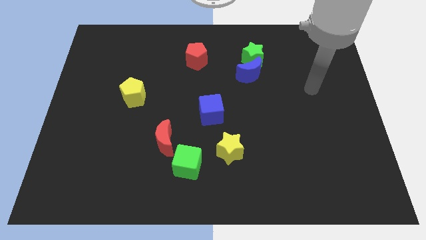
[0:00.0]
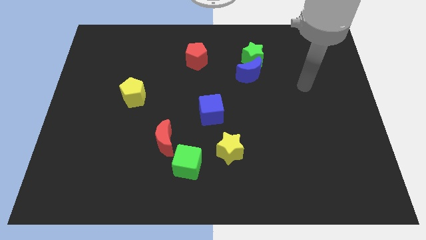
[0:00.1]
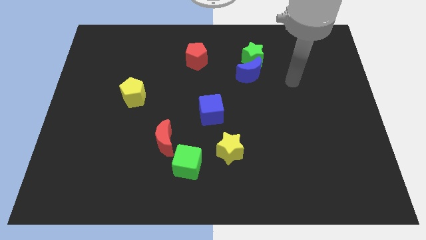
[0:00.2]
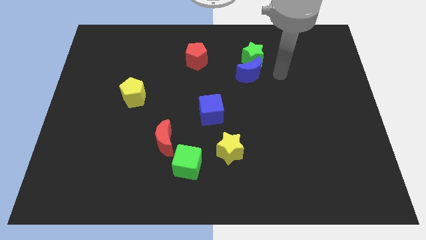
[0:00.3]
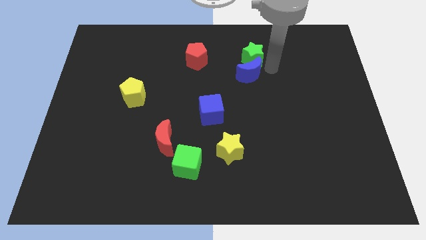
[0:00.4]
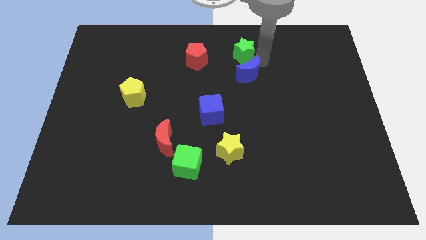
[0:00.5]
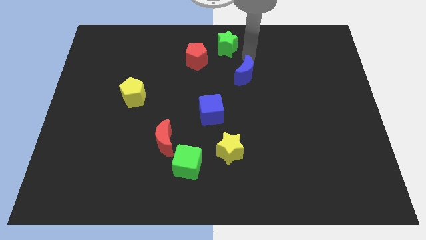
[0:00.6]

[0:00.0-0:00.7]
pull the blue moon apart from the green star

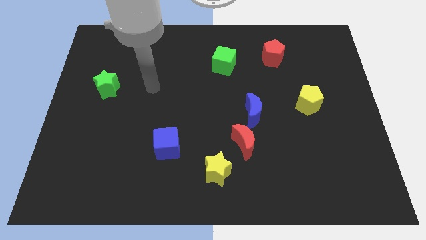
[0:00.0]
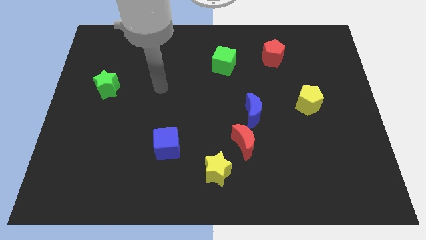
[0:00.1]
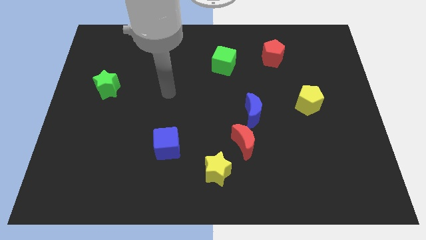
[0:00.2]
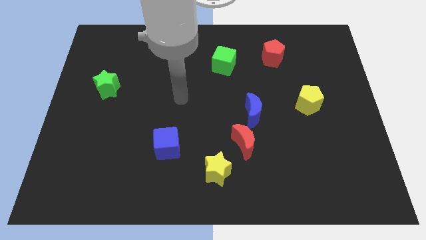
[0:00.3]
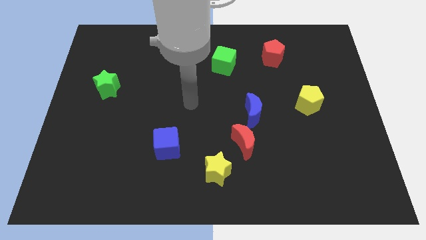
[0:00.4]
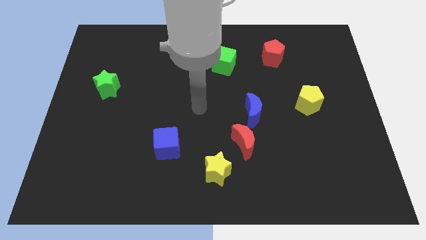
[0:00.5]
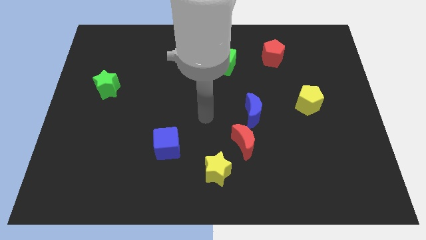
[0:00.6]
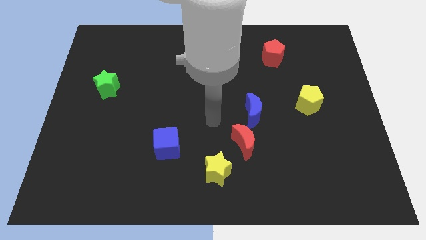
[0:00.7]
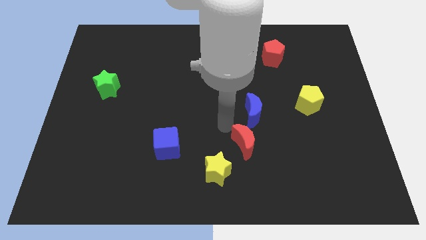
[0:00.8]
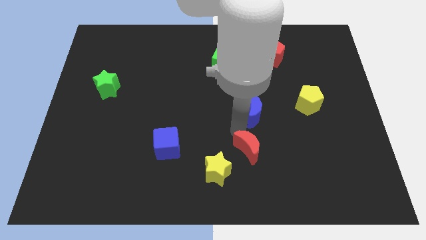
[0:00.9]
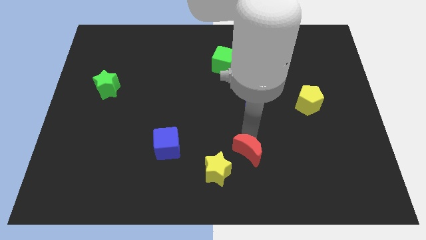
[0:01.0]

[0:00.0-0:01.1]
move the blue moon away from the red moon

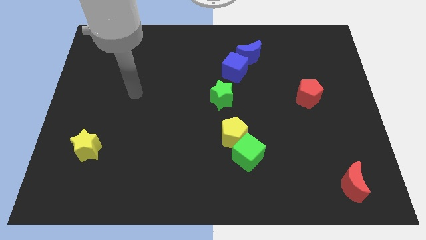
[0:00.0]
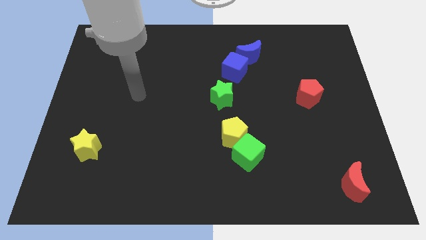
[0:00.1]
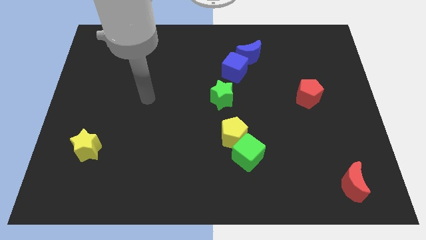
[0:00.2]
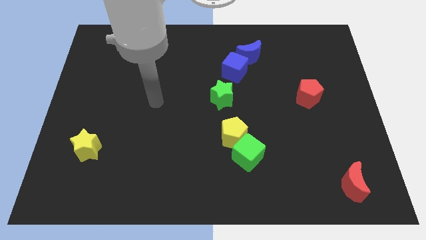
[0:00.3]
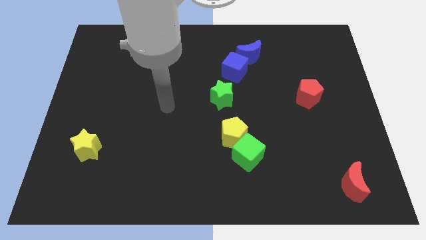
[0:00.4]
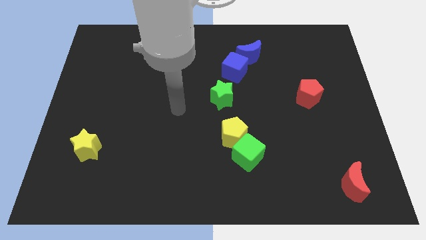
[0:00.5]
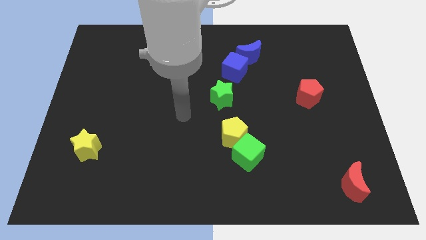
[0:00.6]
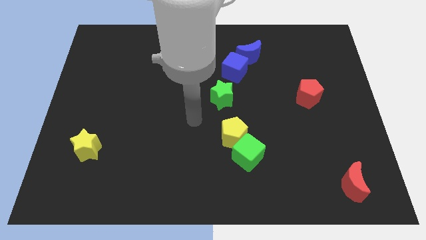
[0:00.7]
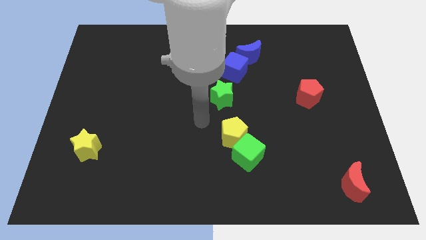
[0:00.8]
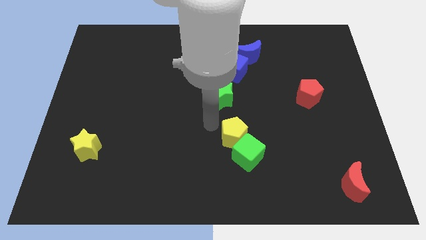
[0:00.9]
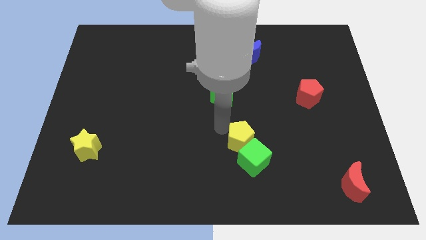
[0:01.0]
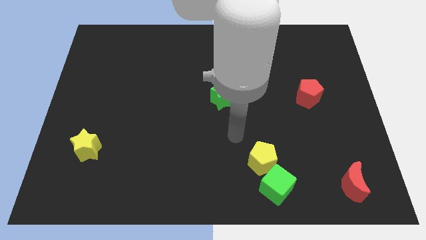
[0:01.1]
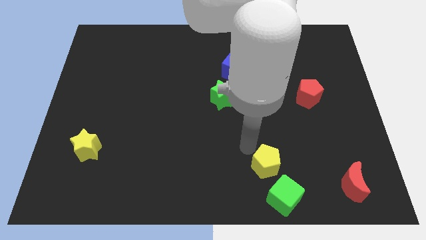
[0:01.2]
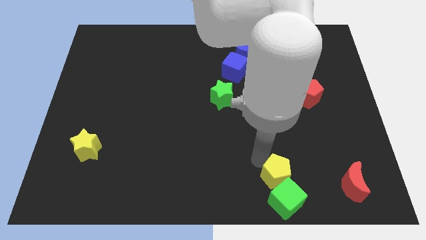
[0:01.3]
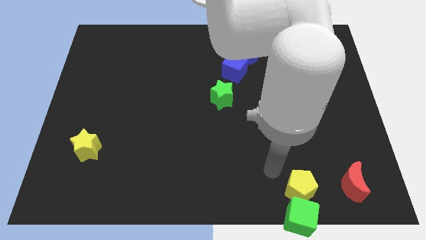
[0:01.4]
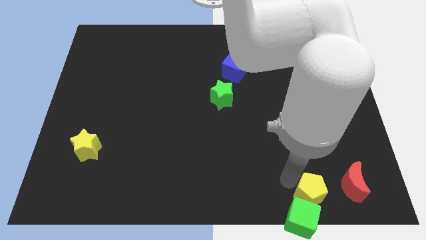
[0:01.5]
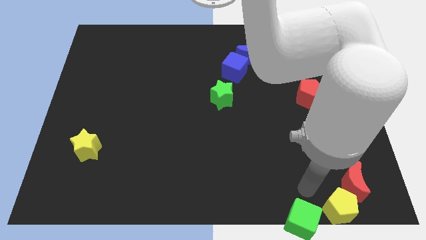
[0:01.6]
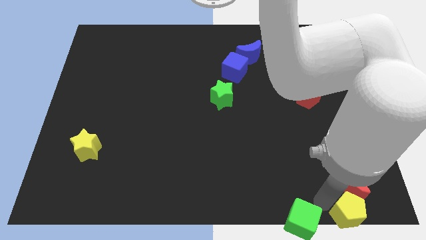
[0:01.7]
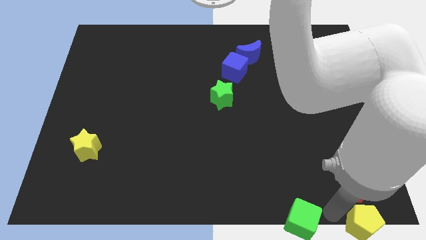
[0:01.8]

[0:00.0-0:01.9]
move the green cube away from the yellow pentagon

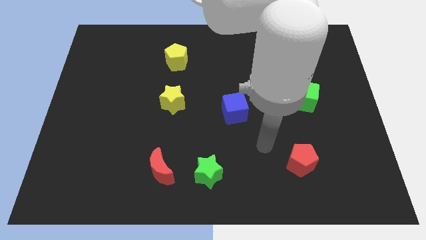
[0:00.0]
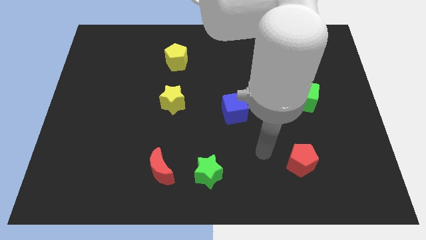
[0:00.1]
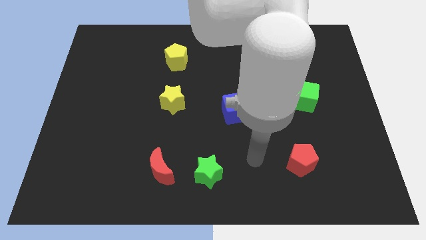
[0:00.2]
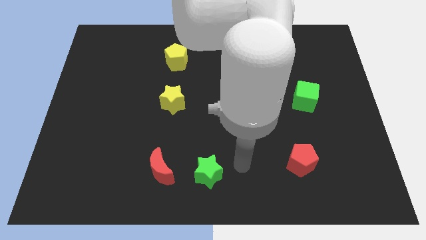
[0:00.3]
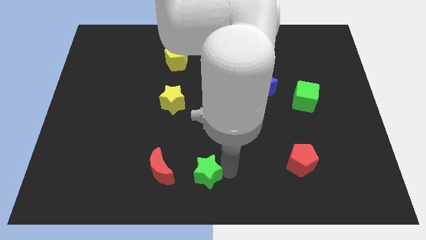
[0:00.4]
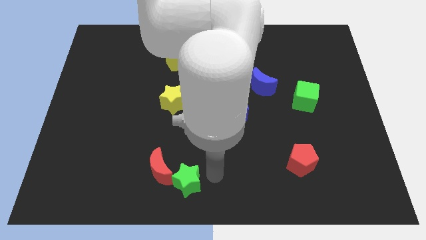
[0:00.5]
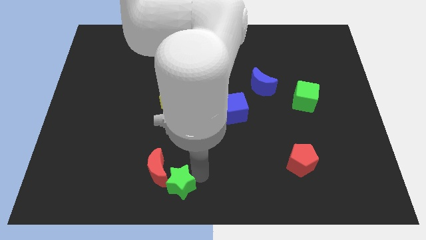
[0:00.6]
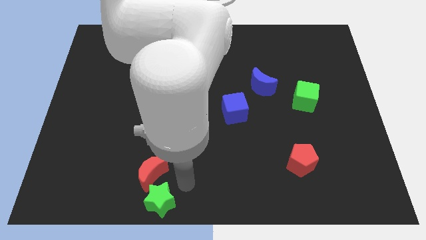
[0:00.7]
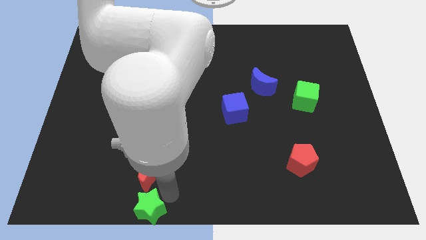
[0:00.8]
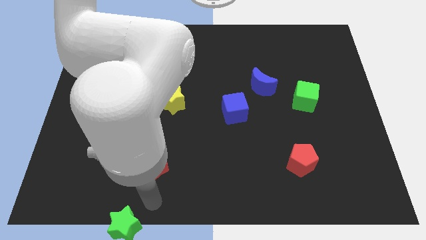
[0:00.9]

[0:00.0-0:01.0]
move the red moon away from the green star

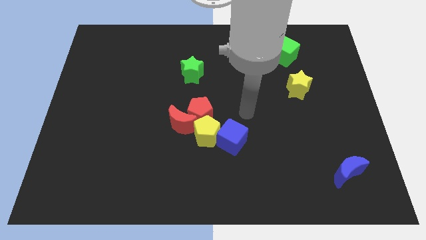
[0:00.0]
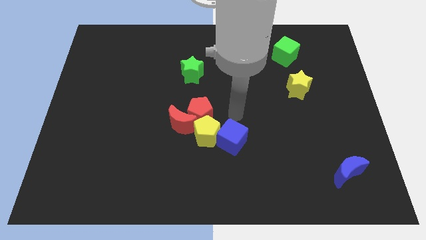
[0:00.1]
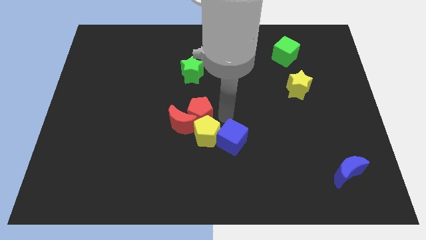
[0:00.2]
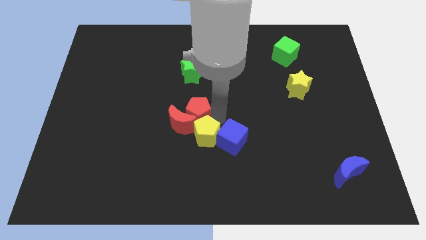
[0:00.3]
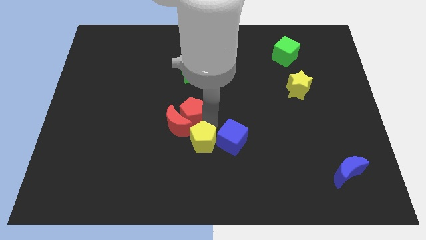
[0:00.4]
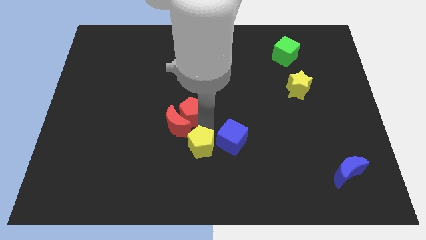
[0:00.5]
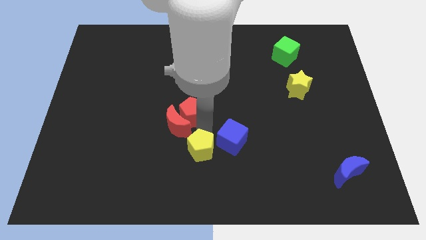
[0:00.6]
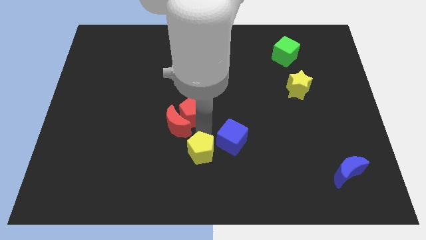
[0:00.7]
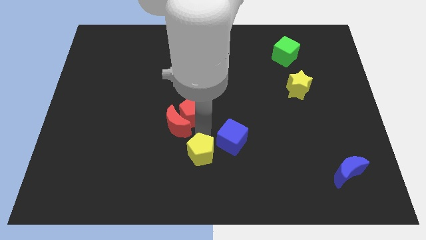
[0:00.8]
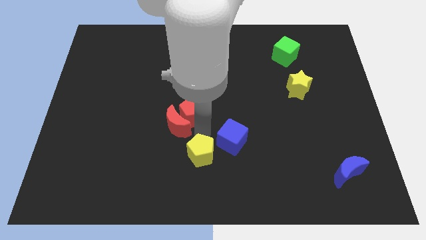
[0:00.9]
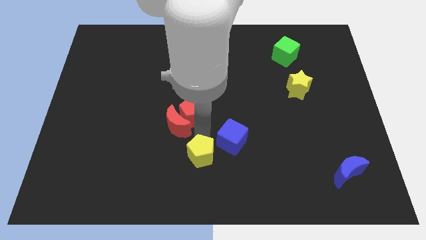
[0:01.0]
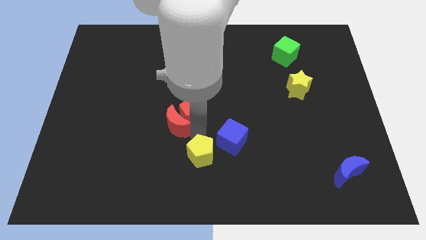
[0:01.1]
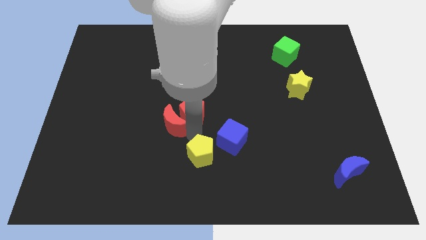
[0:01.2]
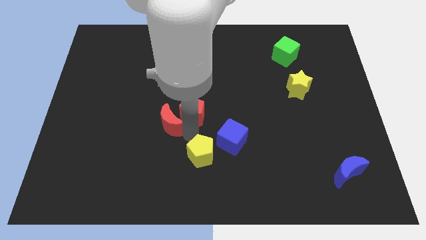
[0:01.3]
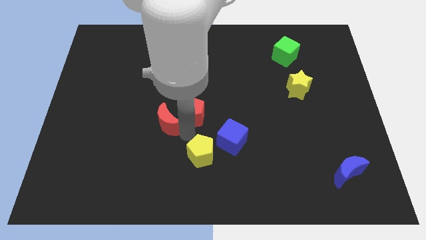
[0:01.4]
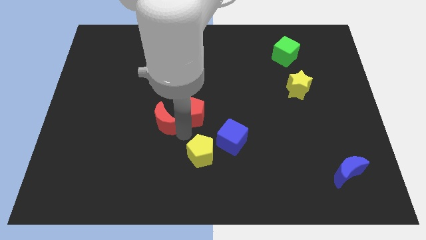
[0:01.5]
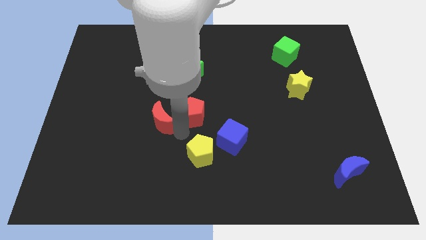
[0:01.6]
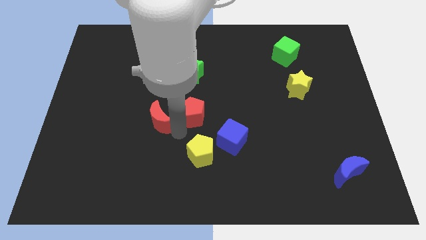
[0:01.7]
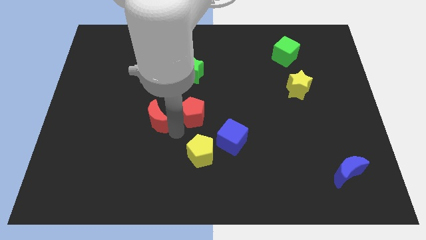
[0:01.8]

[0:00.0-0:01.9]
move the red moon away from the red pentagon and yellow pentagon

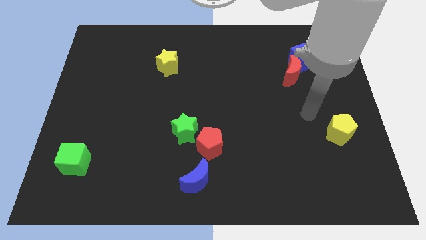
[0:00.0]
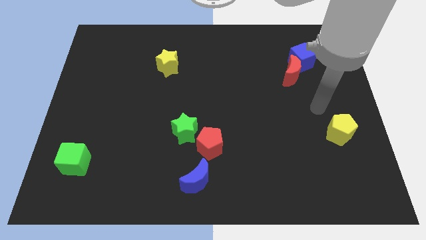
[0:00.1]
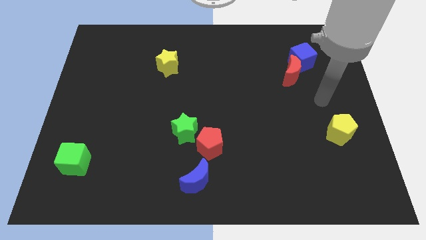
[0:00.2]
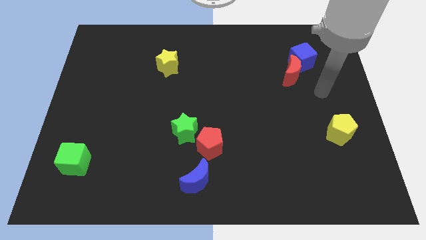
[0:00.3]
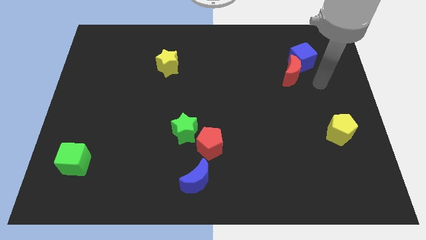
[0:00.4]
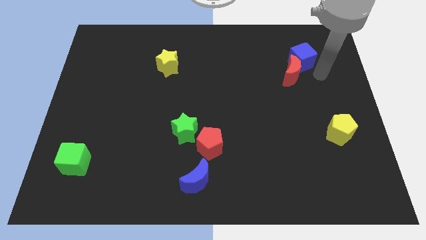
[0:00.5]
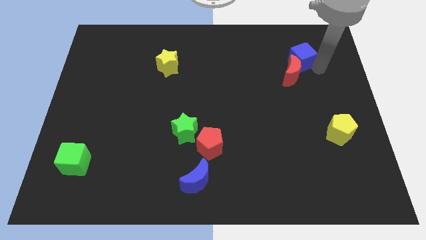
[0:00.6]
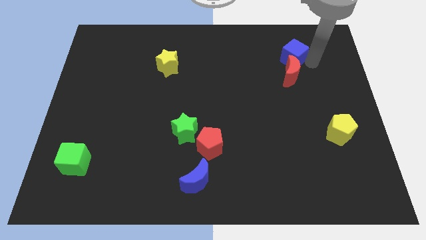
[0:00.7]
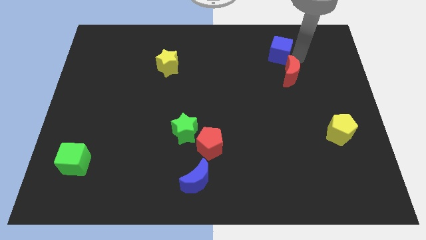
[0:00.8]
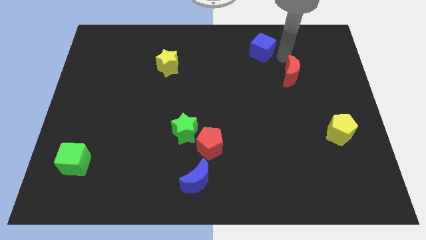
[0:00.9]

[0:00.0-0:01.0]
pull the red moon apart from the blue cube

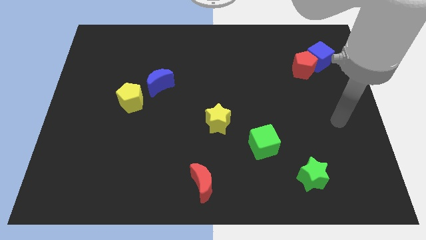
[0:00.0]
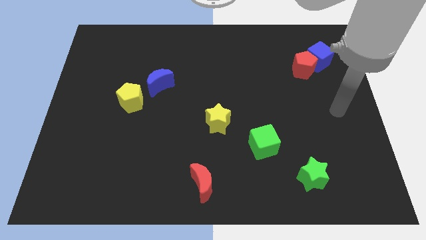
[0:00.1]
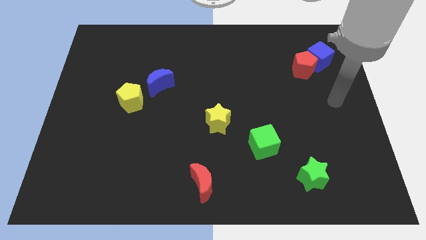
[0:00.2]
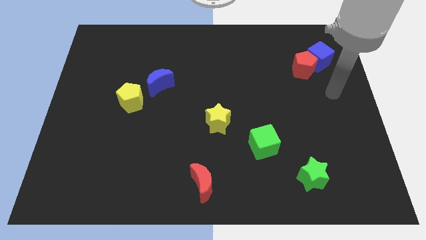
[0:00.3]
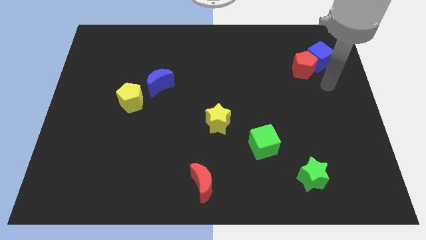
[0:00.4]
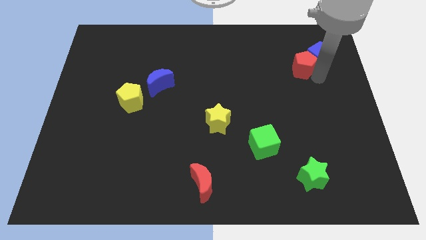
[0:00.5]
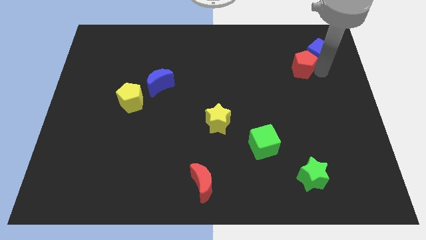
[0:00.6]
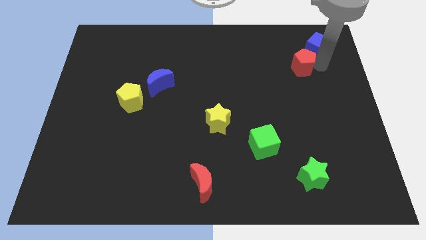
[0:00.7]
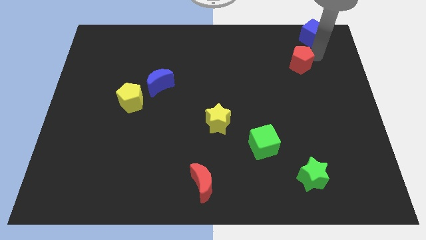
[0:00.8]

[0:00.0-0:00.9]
move the red pentagon away from the blue cube

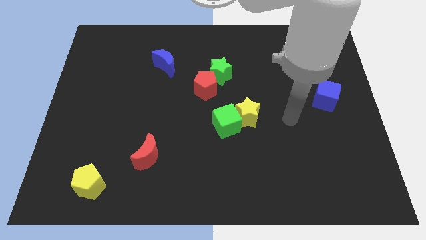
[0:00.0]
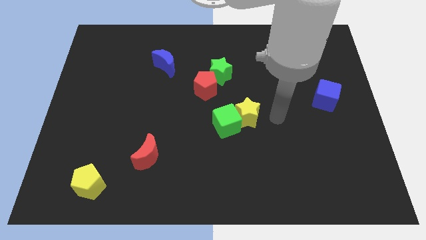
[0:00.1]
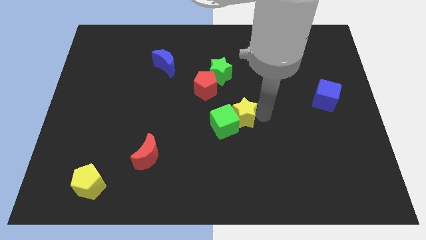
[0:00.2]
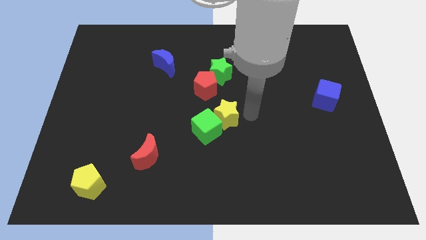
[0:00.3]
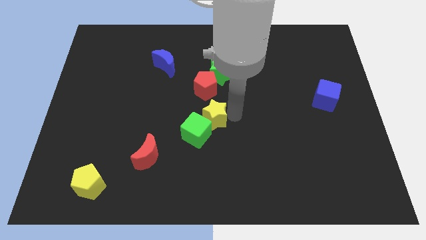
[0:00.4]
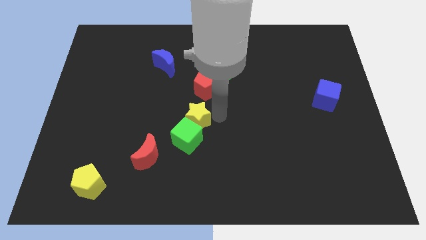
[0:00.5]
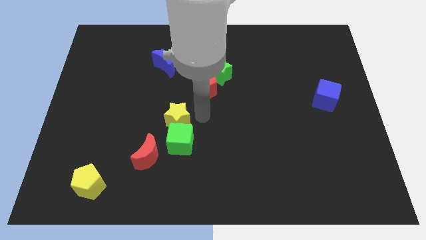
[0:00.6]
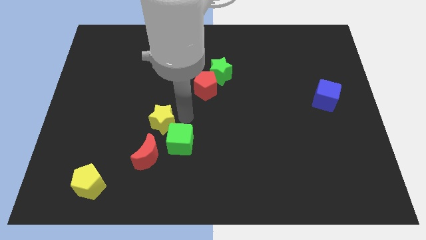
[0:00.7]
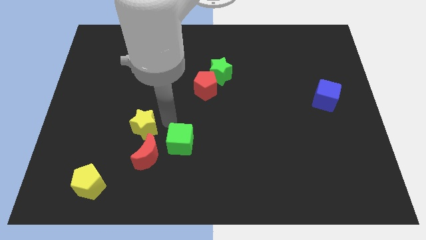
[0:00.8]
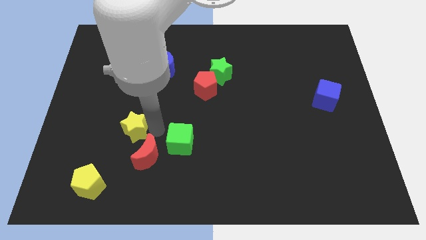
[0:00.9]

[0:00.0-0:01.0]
pull the green cube apart from the yellow star
